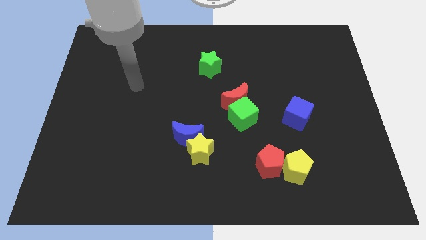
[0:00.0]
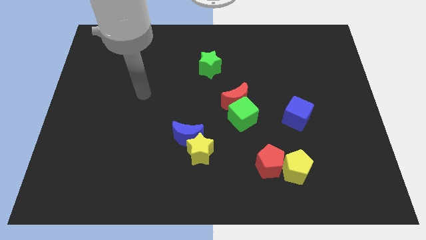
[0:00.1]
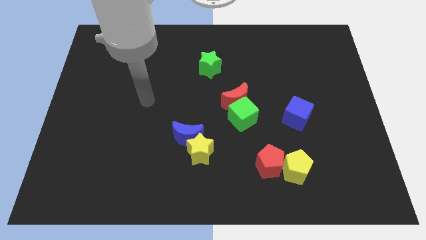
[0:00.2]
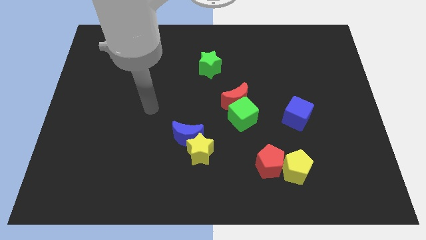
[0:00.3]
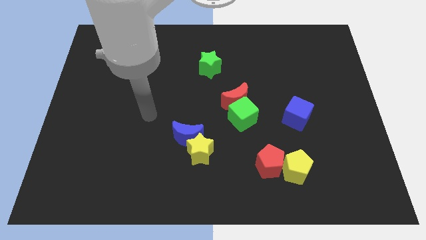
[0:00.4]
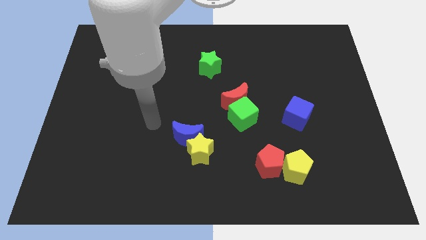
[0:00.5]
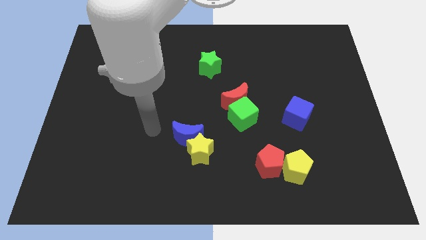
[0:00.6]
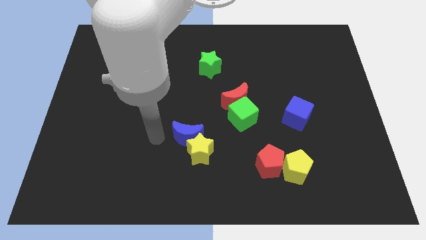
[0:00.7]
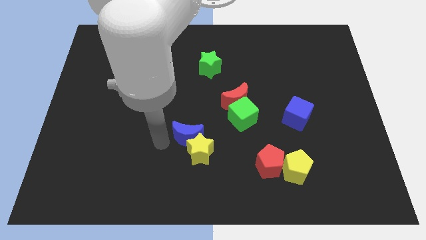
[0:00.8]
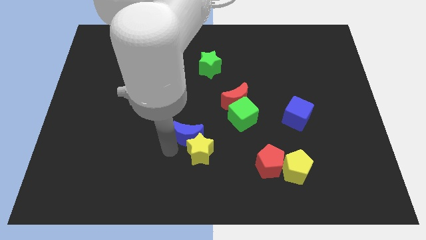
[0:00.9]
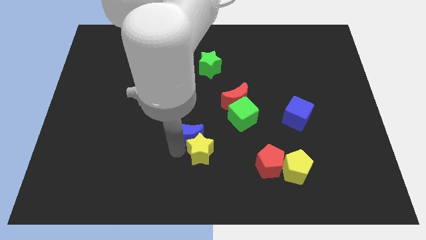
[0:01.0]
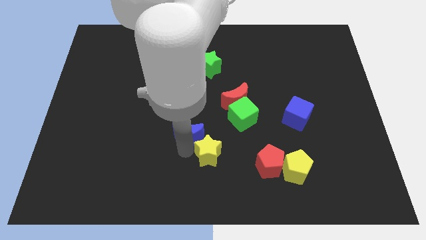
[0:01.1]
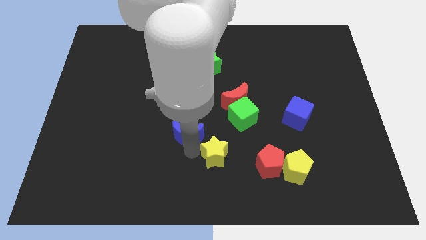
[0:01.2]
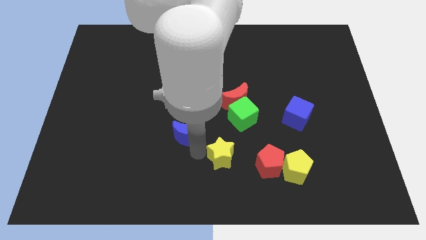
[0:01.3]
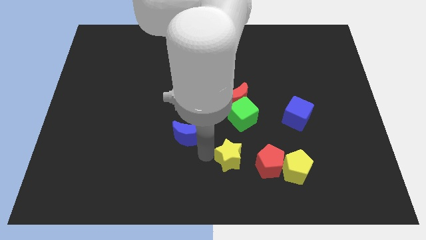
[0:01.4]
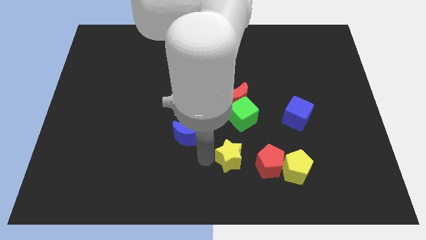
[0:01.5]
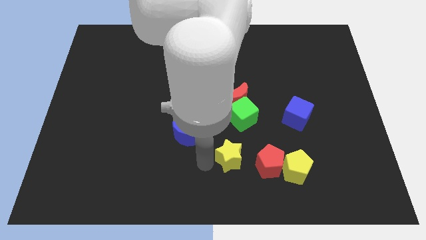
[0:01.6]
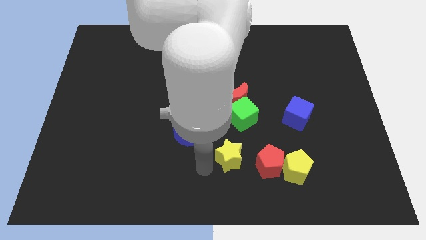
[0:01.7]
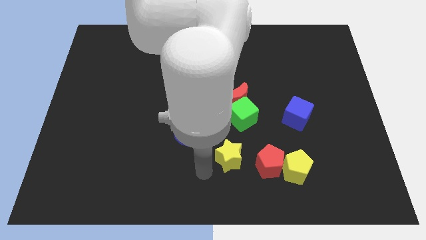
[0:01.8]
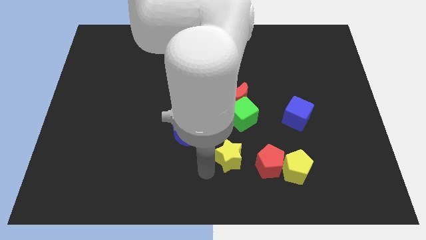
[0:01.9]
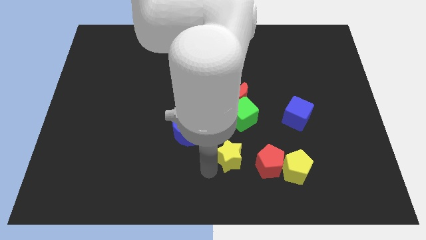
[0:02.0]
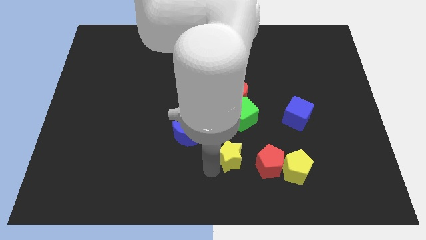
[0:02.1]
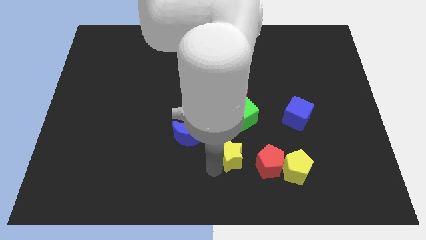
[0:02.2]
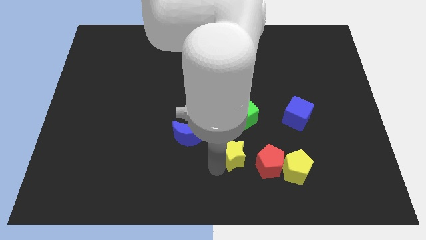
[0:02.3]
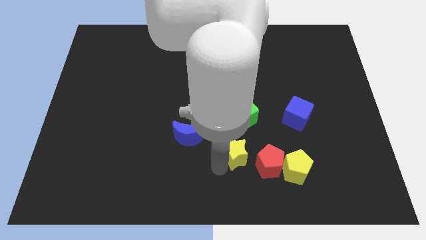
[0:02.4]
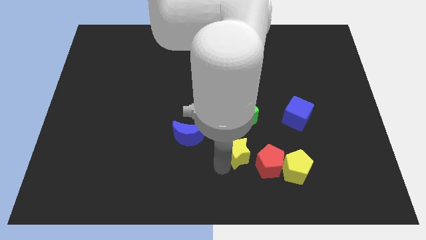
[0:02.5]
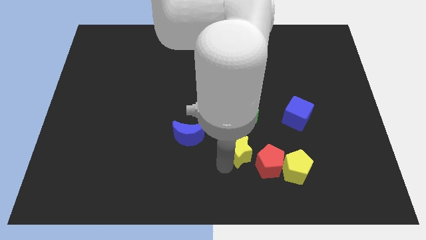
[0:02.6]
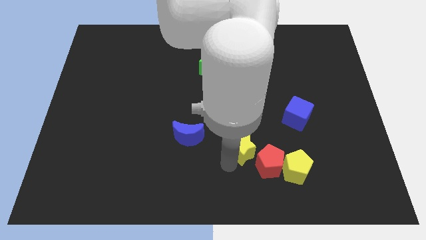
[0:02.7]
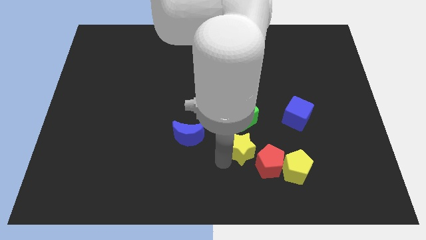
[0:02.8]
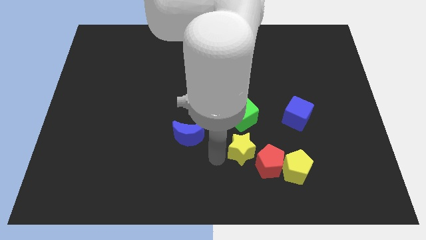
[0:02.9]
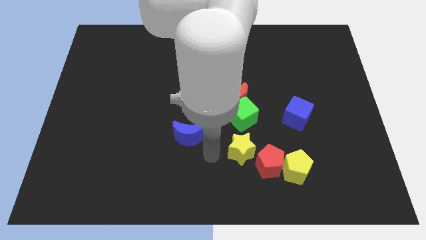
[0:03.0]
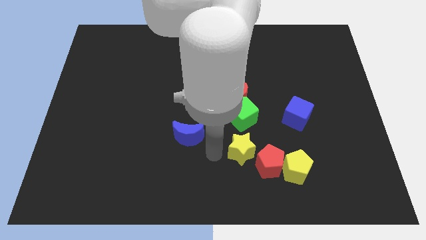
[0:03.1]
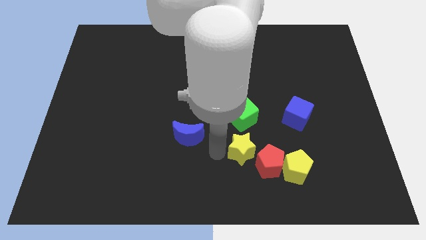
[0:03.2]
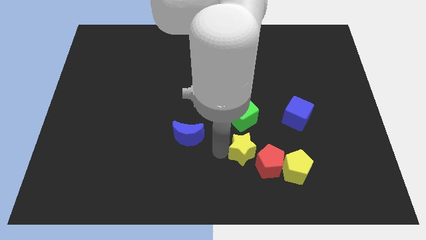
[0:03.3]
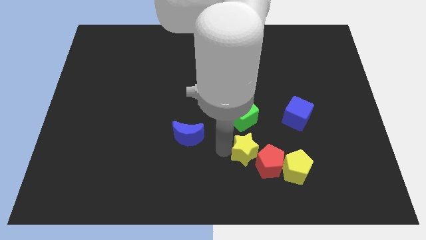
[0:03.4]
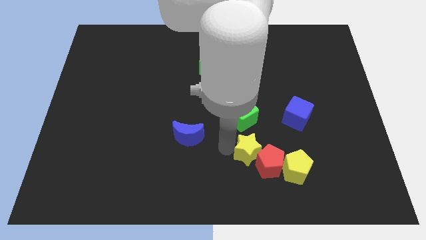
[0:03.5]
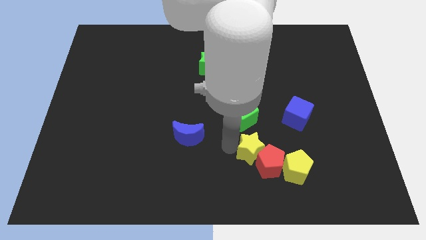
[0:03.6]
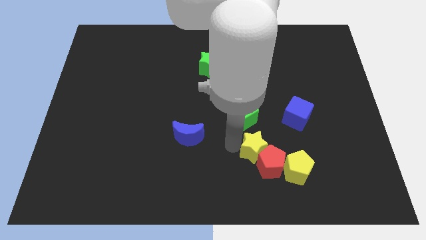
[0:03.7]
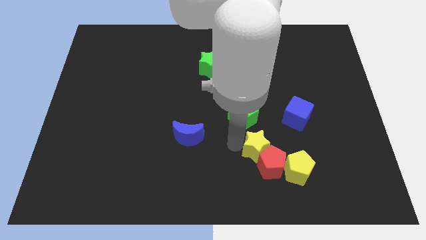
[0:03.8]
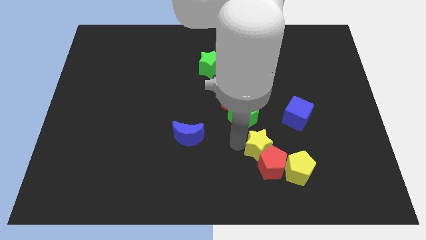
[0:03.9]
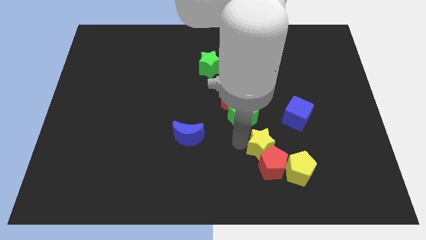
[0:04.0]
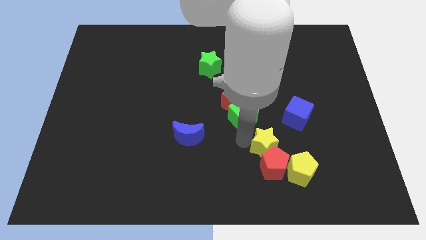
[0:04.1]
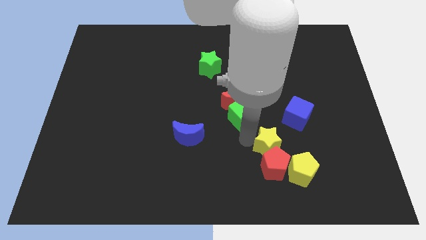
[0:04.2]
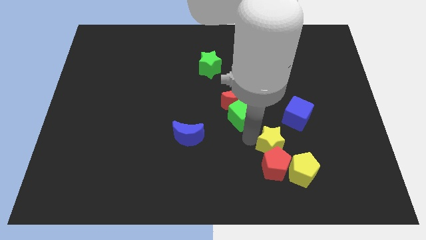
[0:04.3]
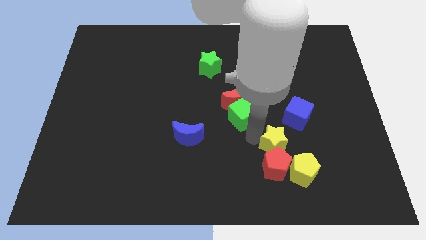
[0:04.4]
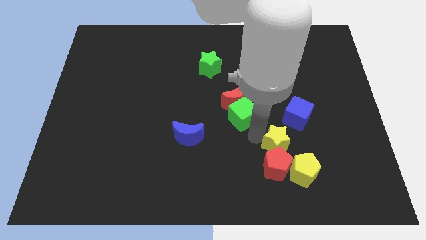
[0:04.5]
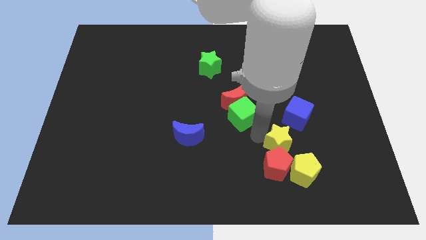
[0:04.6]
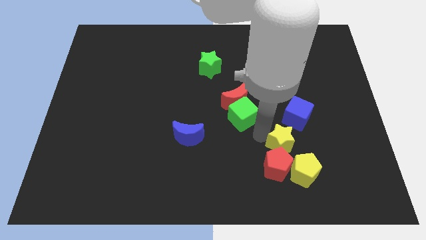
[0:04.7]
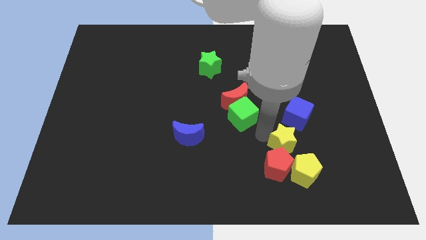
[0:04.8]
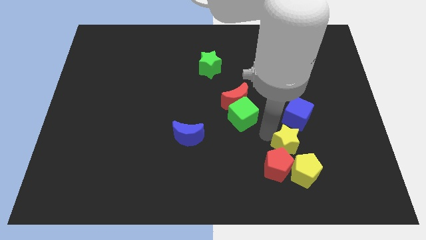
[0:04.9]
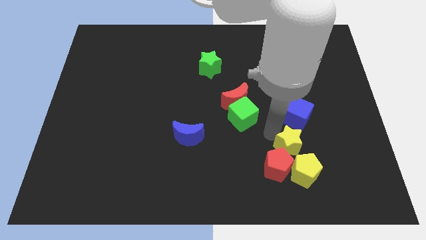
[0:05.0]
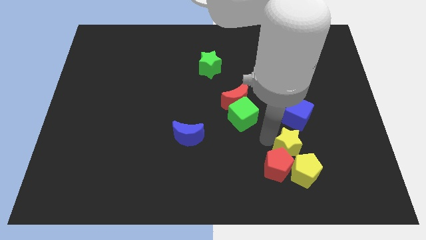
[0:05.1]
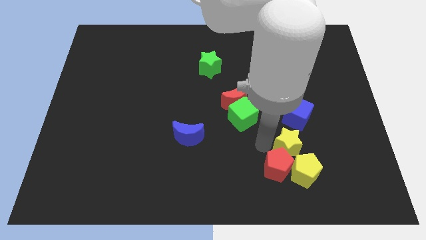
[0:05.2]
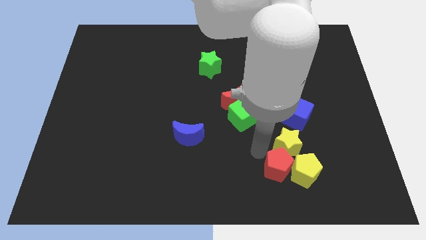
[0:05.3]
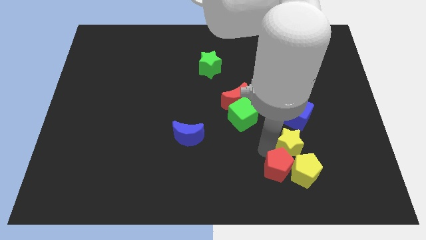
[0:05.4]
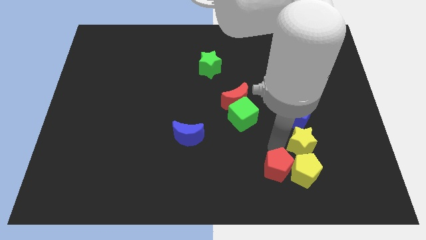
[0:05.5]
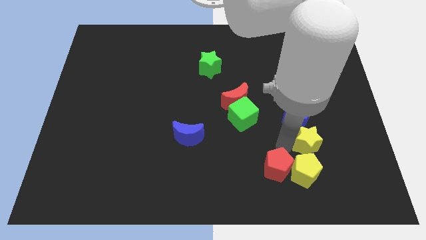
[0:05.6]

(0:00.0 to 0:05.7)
push the yellow star to the bottom right side of the blue cube
